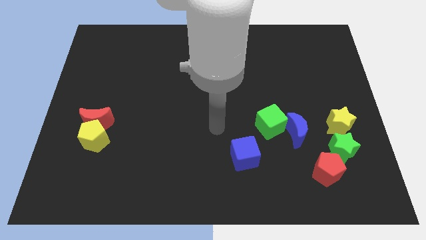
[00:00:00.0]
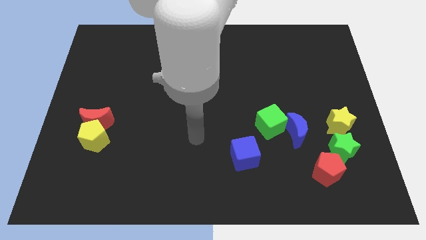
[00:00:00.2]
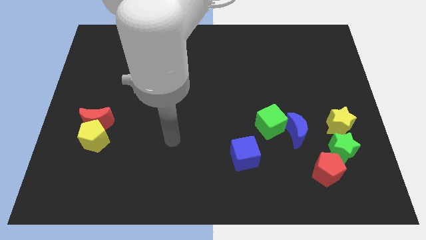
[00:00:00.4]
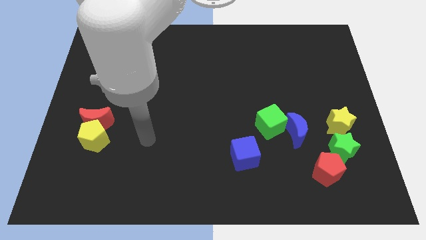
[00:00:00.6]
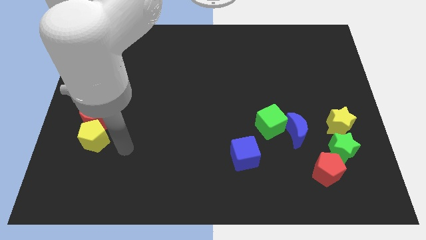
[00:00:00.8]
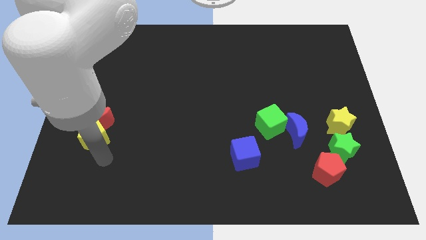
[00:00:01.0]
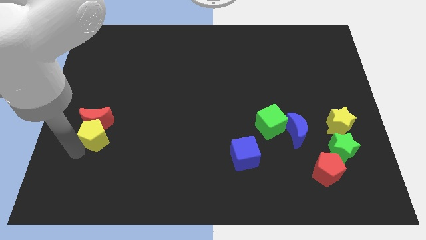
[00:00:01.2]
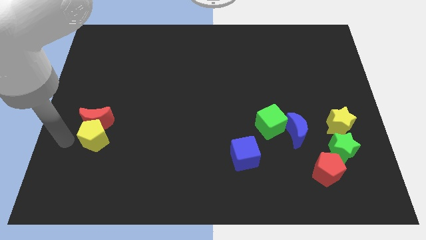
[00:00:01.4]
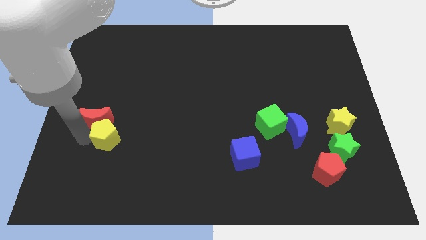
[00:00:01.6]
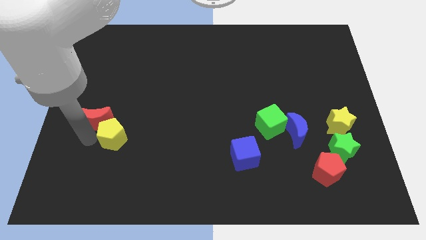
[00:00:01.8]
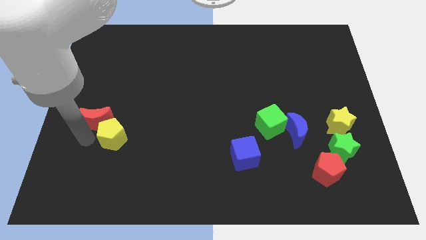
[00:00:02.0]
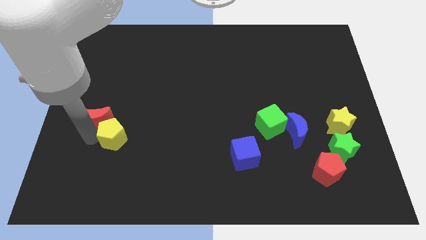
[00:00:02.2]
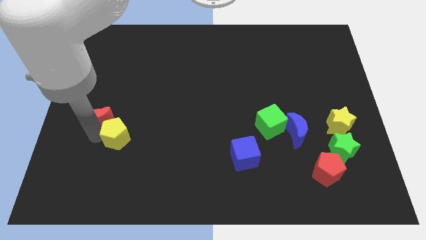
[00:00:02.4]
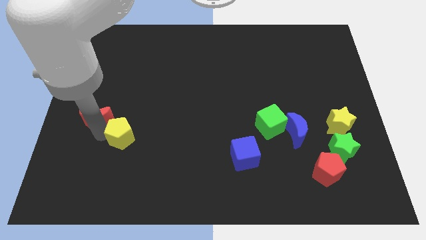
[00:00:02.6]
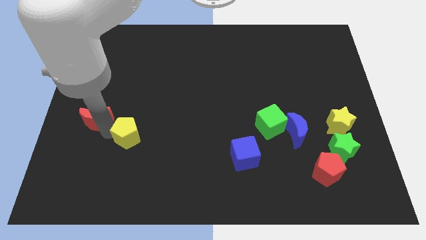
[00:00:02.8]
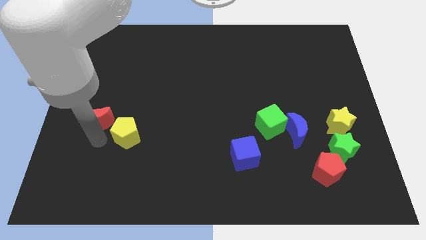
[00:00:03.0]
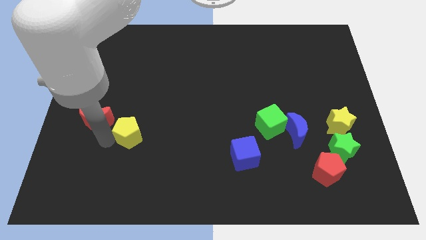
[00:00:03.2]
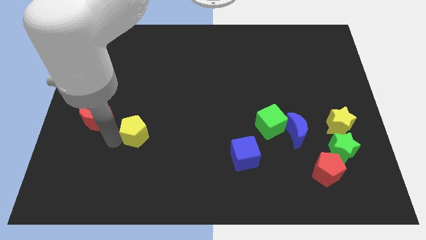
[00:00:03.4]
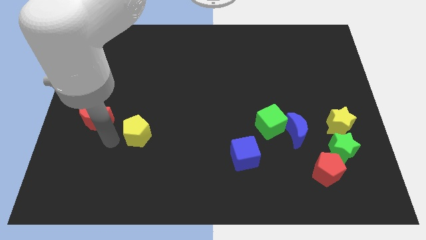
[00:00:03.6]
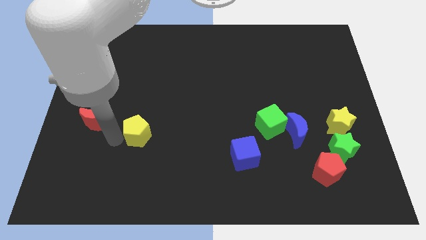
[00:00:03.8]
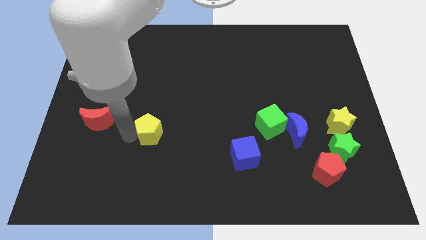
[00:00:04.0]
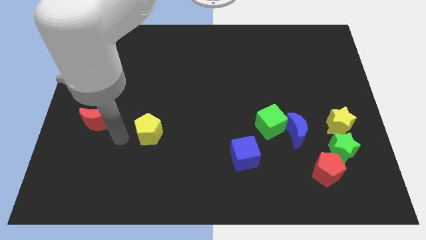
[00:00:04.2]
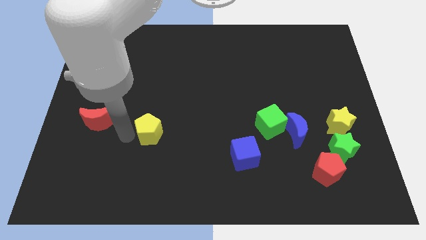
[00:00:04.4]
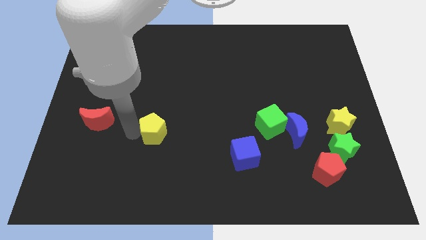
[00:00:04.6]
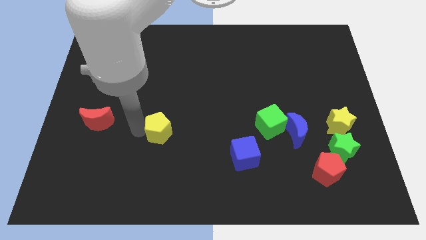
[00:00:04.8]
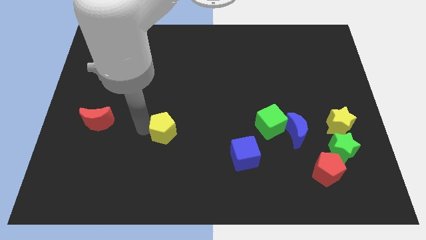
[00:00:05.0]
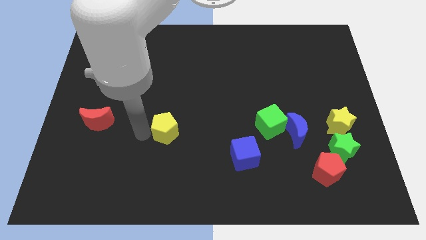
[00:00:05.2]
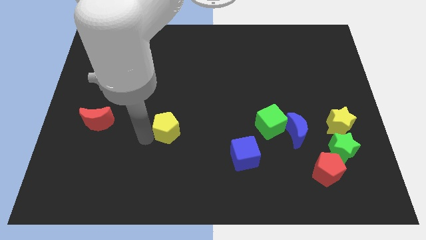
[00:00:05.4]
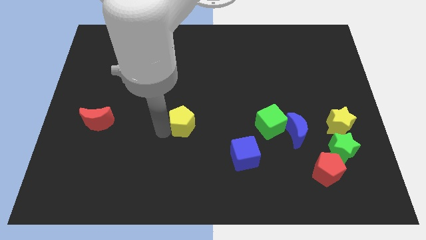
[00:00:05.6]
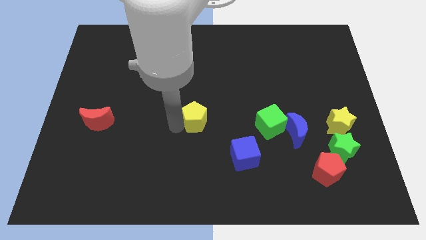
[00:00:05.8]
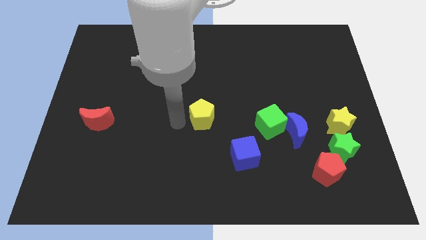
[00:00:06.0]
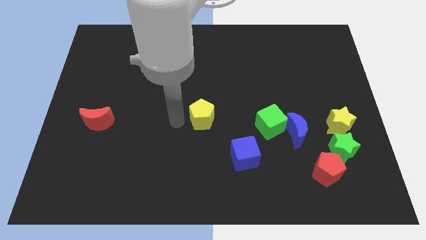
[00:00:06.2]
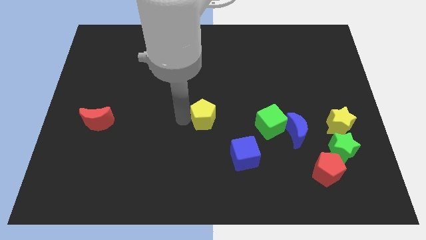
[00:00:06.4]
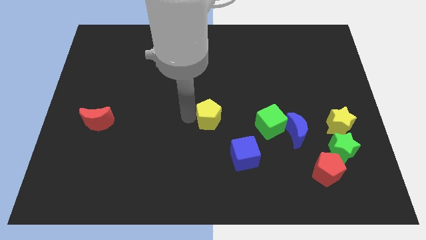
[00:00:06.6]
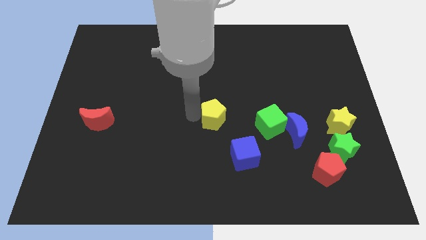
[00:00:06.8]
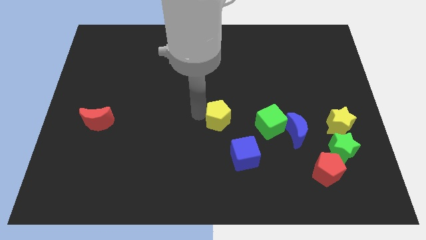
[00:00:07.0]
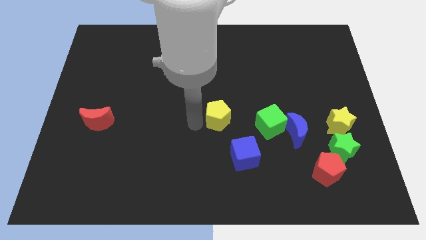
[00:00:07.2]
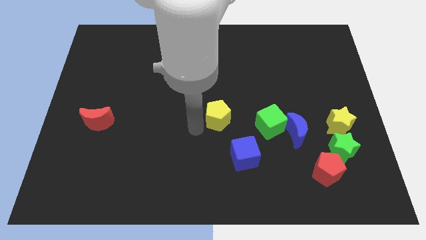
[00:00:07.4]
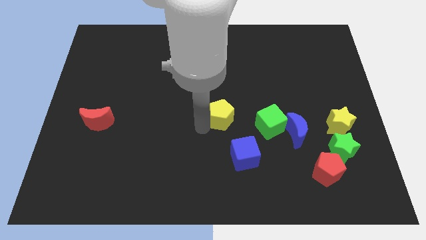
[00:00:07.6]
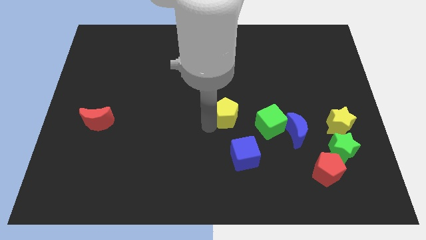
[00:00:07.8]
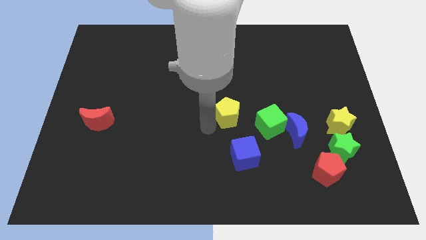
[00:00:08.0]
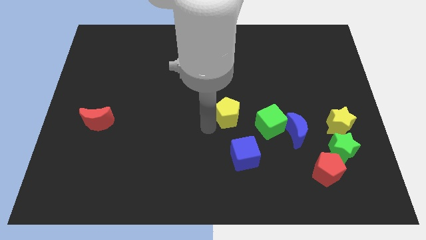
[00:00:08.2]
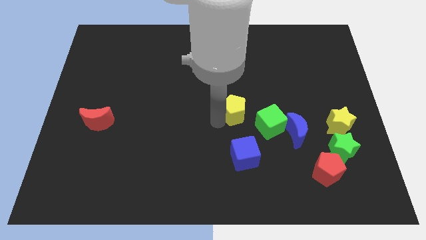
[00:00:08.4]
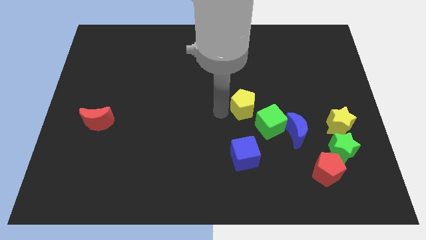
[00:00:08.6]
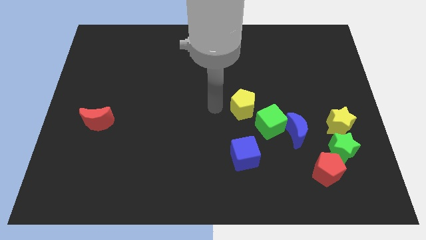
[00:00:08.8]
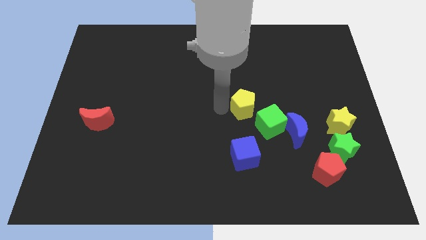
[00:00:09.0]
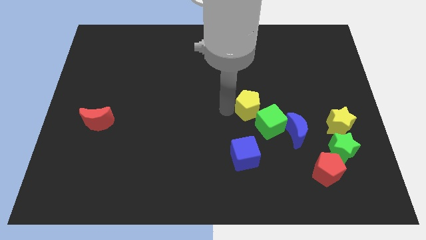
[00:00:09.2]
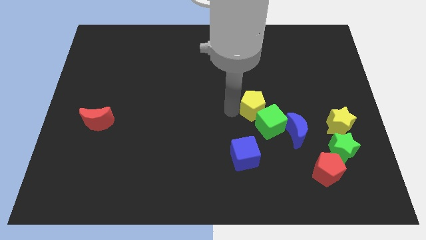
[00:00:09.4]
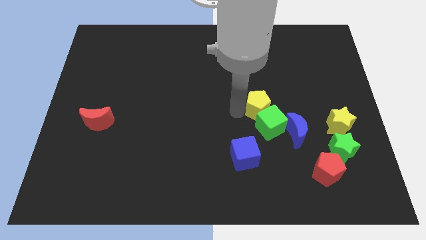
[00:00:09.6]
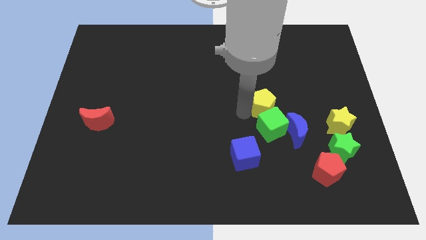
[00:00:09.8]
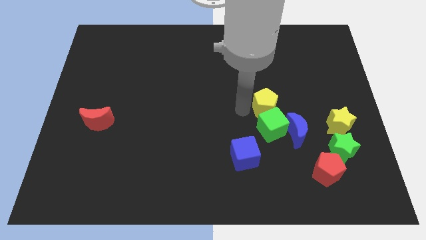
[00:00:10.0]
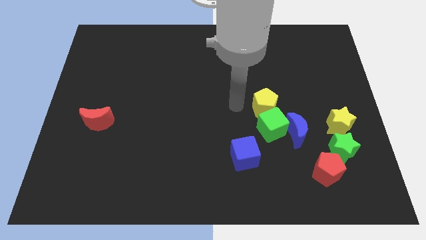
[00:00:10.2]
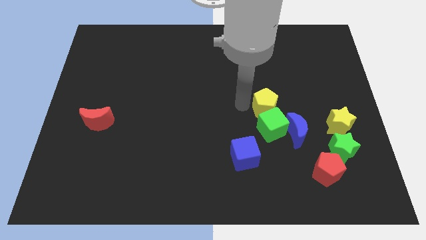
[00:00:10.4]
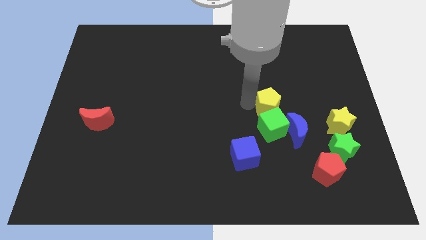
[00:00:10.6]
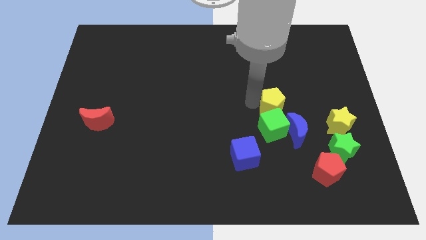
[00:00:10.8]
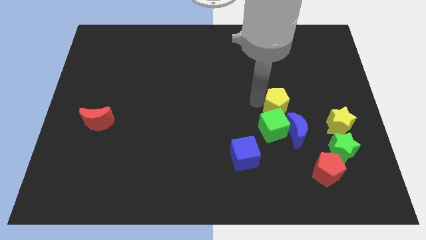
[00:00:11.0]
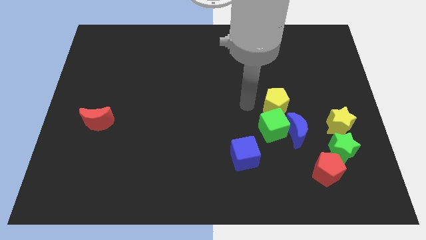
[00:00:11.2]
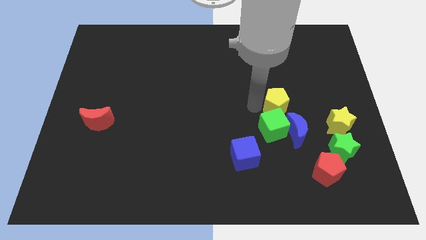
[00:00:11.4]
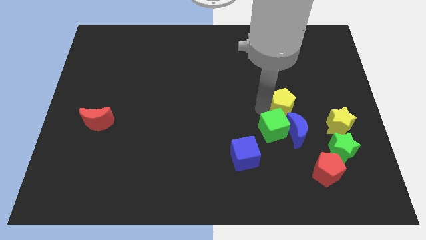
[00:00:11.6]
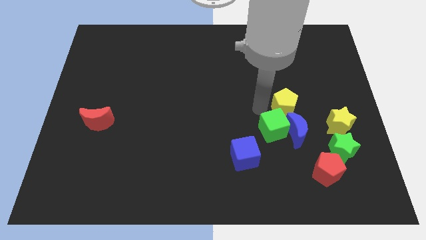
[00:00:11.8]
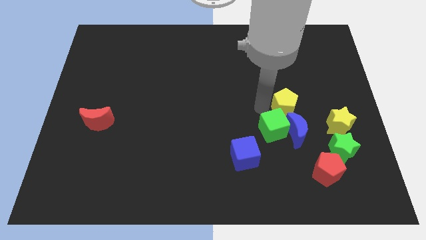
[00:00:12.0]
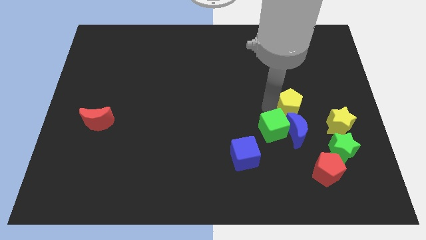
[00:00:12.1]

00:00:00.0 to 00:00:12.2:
move the yellow pentagon diagonally up and to the left of the yellow star

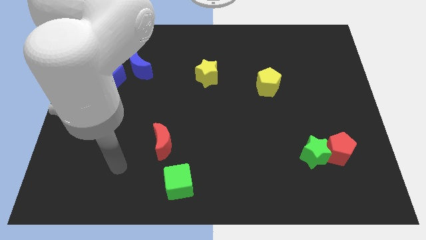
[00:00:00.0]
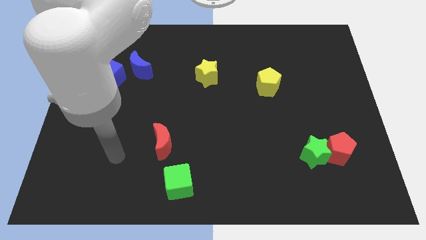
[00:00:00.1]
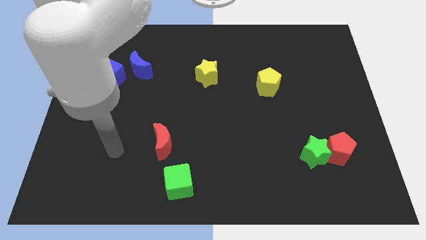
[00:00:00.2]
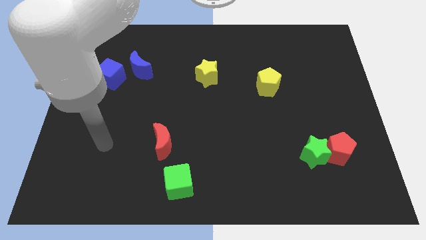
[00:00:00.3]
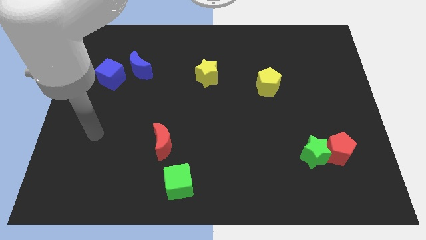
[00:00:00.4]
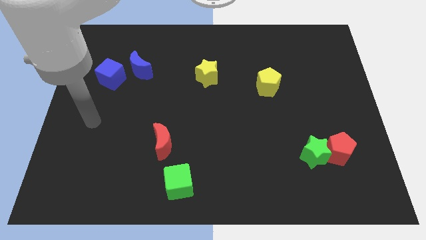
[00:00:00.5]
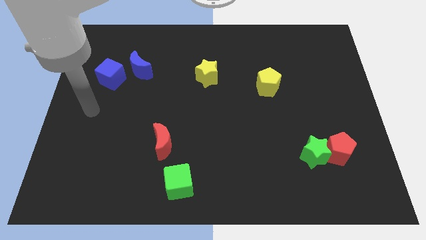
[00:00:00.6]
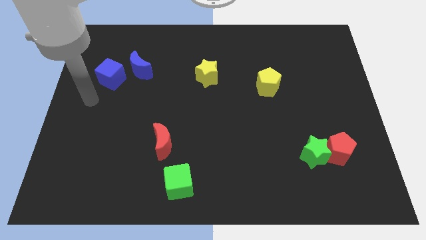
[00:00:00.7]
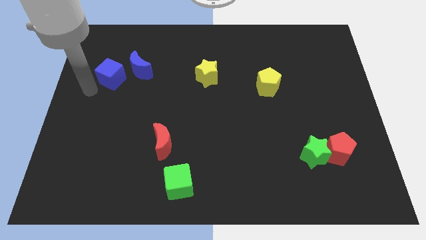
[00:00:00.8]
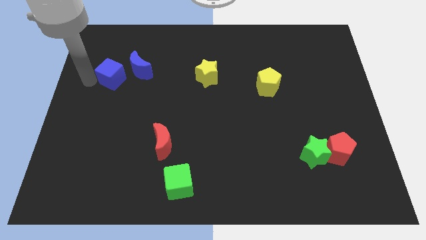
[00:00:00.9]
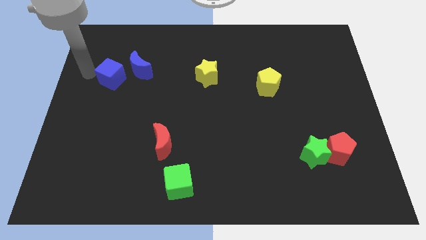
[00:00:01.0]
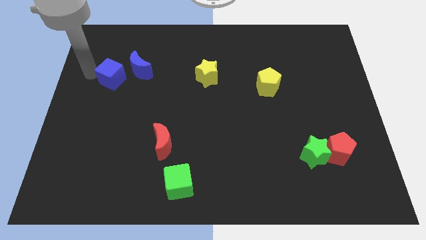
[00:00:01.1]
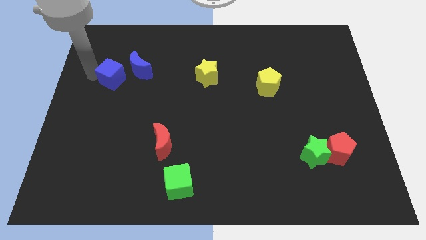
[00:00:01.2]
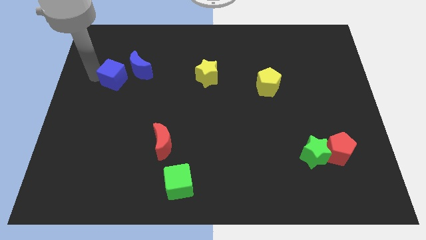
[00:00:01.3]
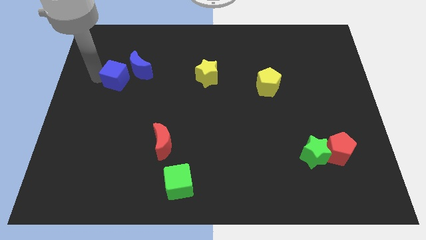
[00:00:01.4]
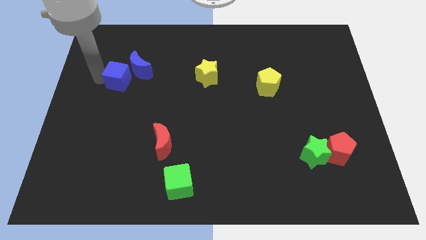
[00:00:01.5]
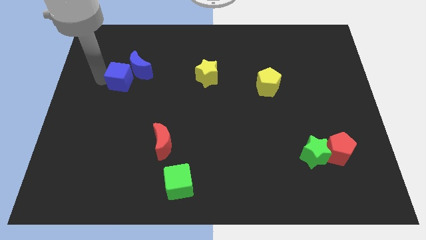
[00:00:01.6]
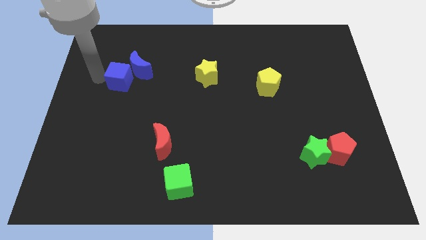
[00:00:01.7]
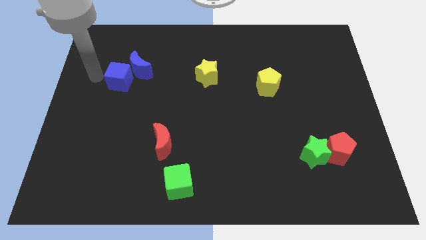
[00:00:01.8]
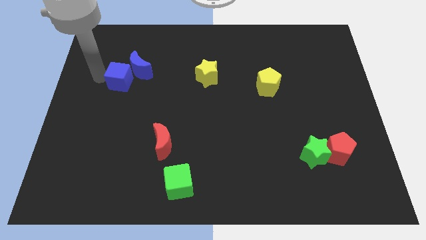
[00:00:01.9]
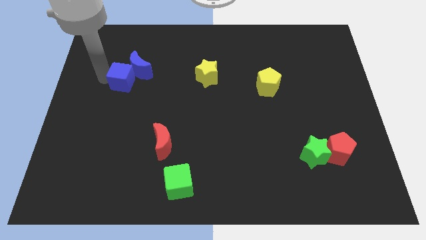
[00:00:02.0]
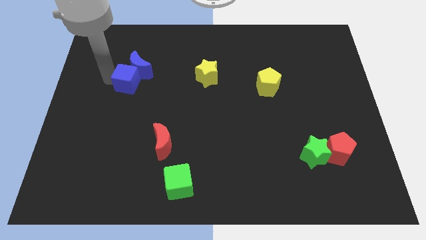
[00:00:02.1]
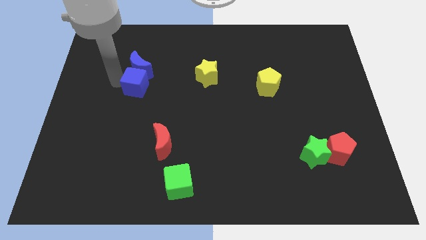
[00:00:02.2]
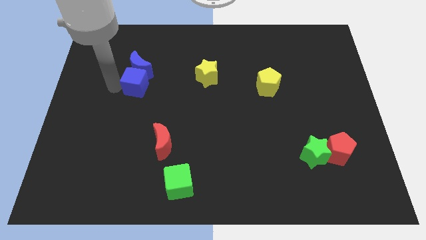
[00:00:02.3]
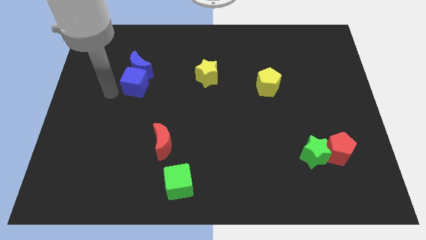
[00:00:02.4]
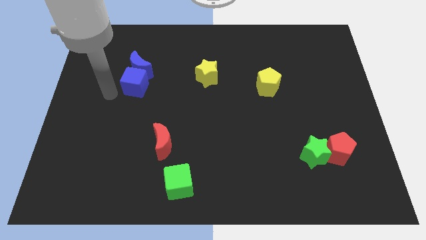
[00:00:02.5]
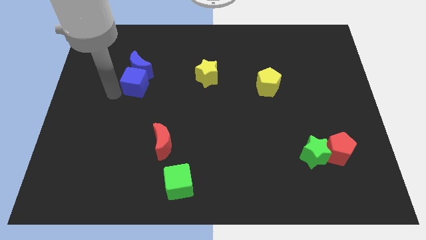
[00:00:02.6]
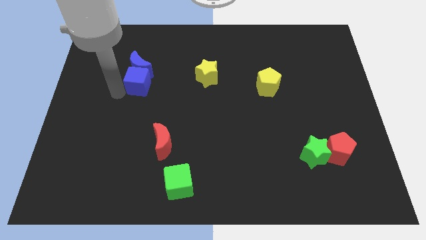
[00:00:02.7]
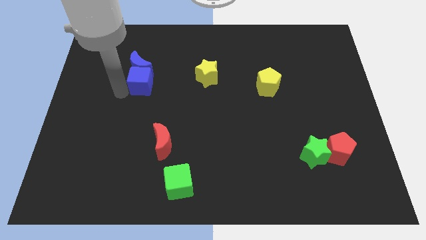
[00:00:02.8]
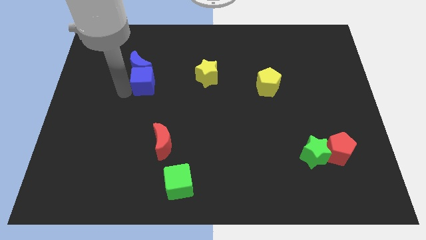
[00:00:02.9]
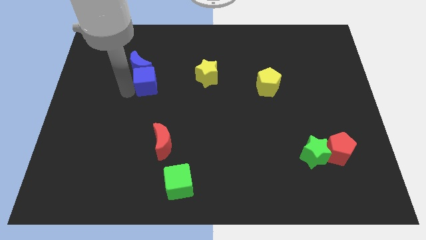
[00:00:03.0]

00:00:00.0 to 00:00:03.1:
slide the blue cube just left of the yellow star
